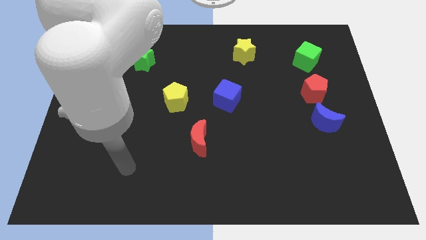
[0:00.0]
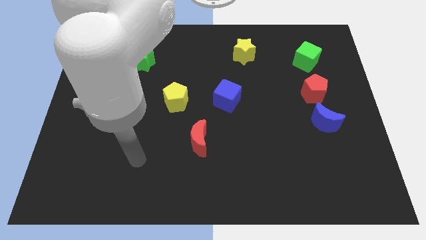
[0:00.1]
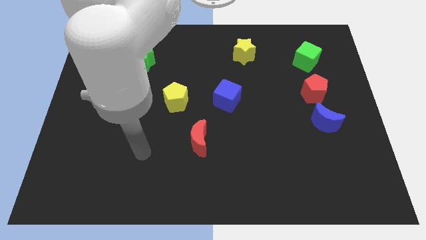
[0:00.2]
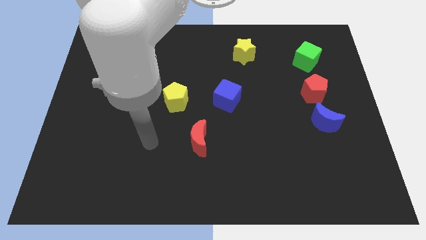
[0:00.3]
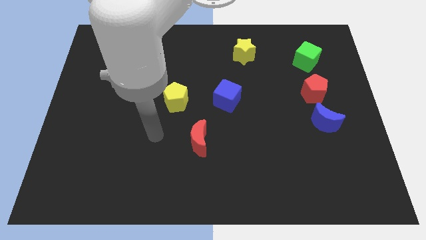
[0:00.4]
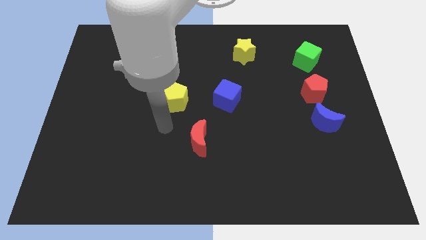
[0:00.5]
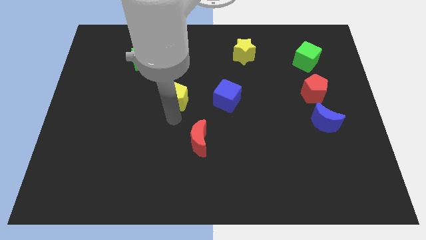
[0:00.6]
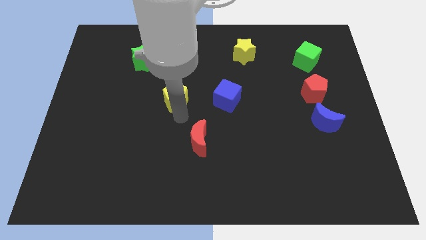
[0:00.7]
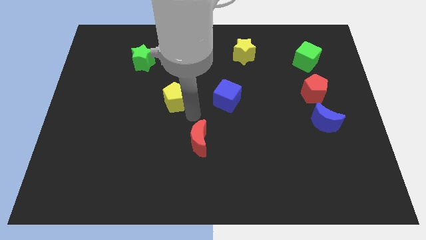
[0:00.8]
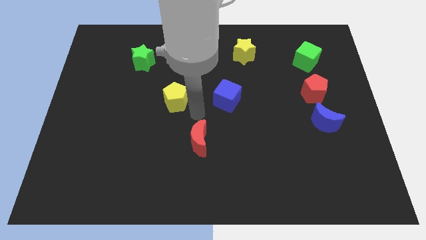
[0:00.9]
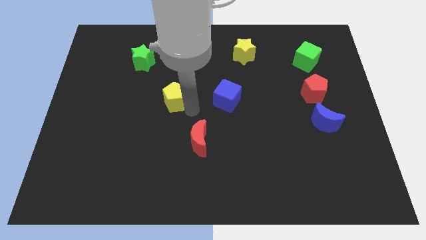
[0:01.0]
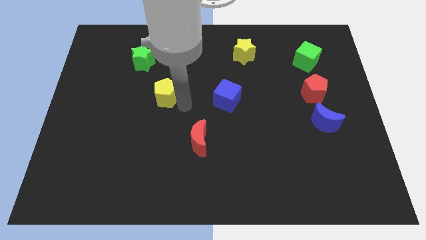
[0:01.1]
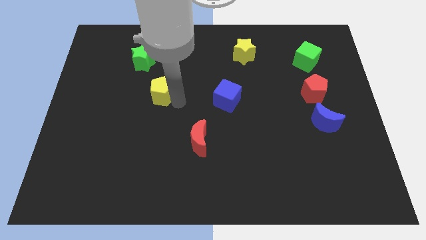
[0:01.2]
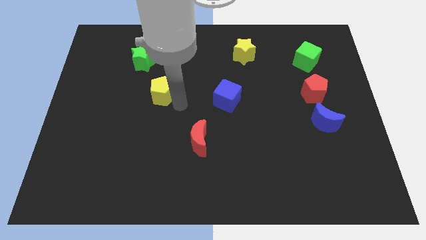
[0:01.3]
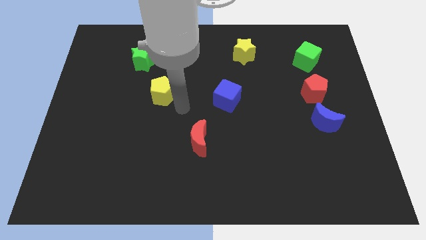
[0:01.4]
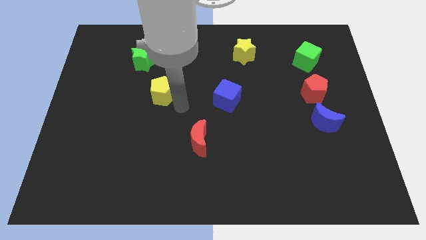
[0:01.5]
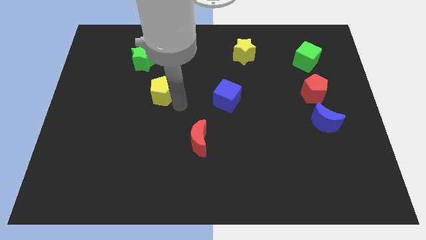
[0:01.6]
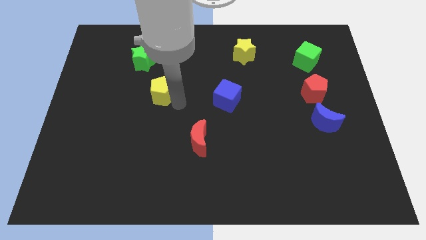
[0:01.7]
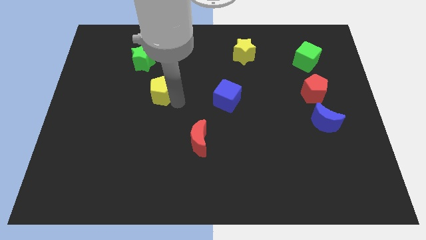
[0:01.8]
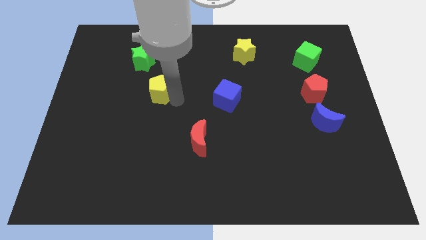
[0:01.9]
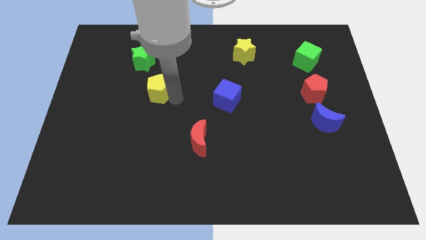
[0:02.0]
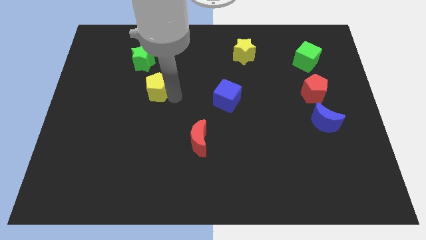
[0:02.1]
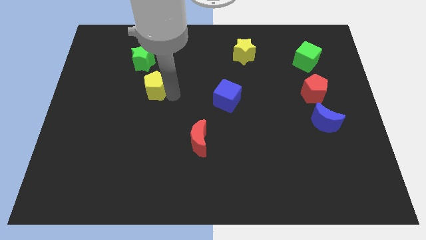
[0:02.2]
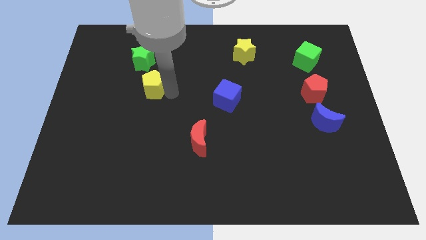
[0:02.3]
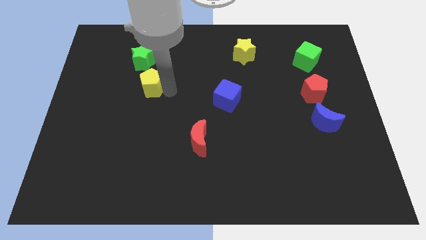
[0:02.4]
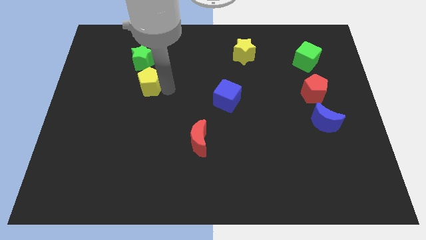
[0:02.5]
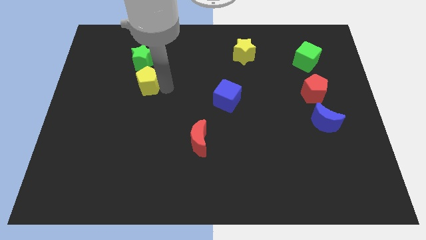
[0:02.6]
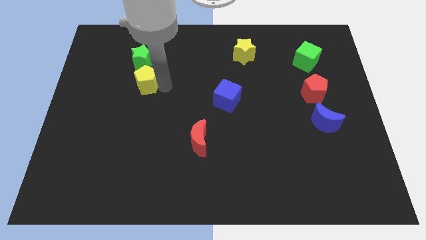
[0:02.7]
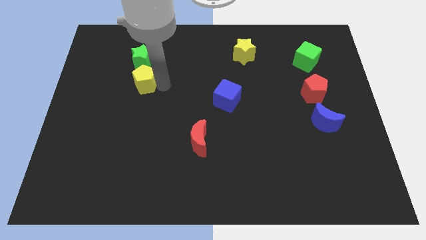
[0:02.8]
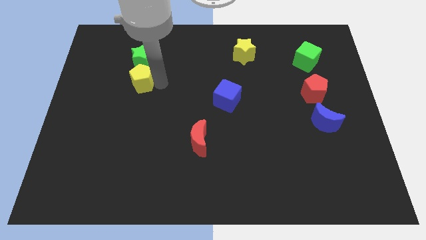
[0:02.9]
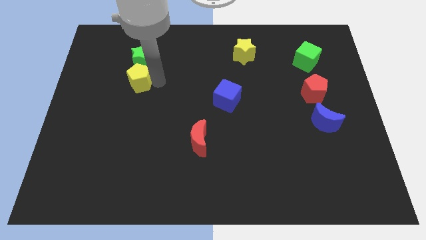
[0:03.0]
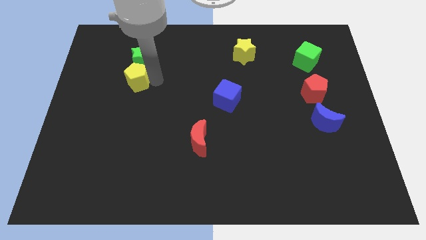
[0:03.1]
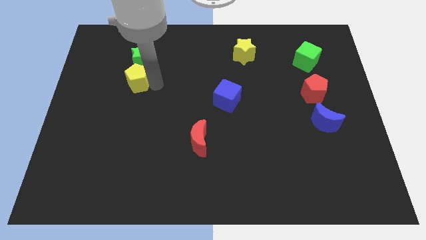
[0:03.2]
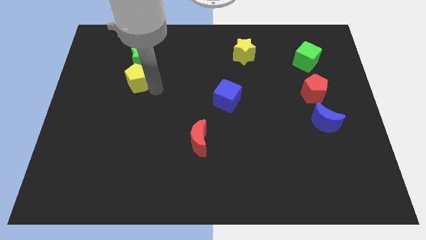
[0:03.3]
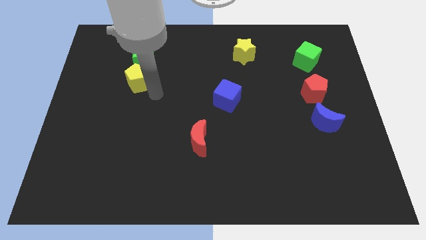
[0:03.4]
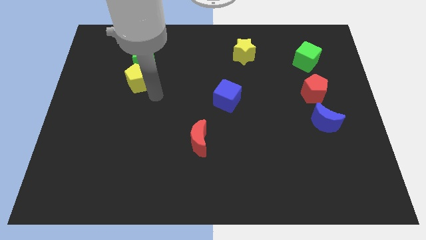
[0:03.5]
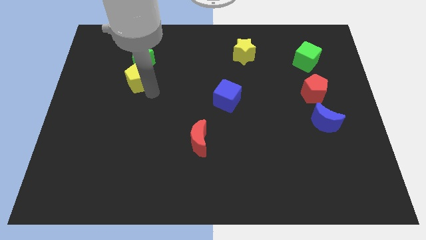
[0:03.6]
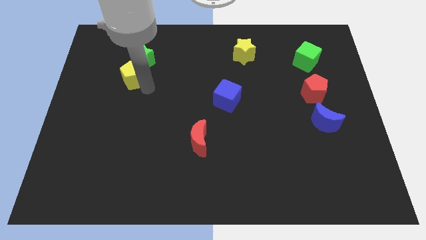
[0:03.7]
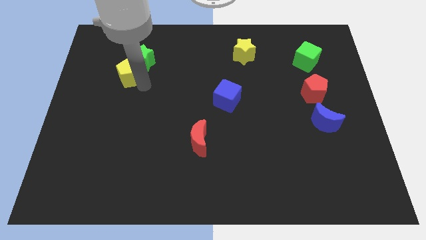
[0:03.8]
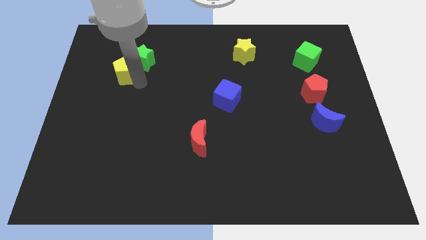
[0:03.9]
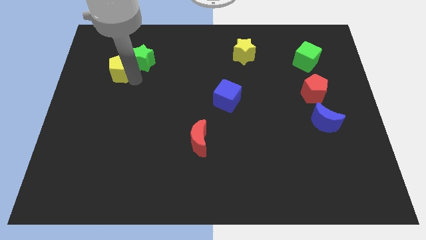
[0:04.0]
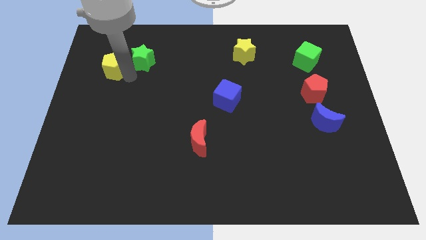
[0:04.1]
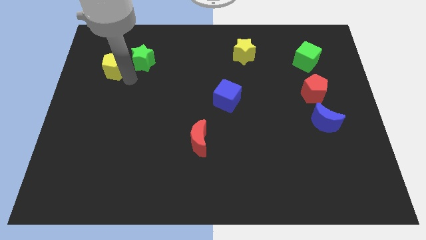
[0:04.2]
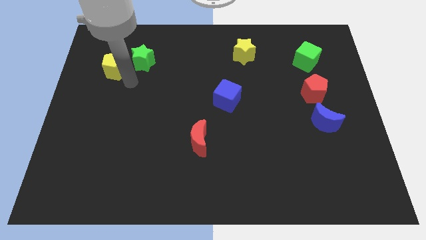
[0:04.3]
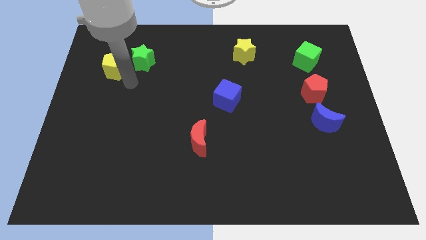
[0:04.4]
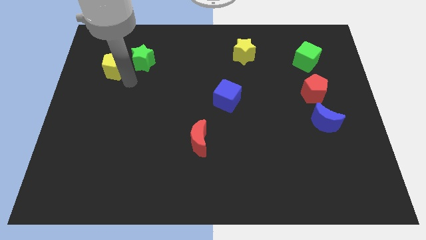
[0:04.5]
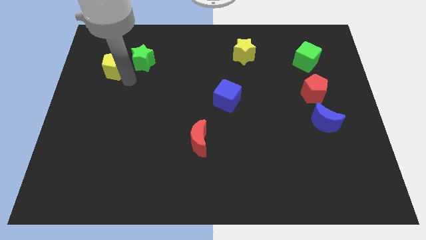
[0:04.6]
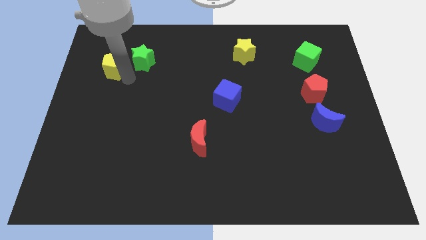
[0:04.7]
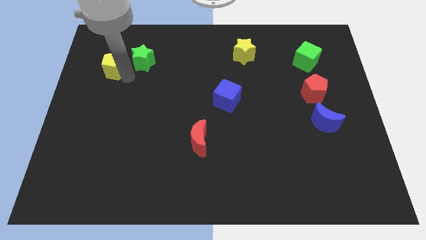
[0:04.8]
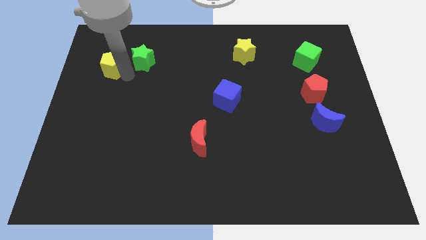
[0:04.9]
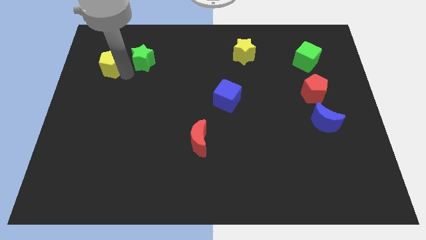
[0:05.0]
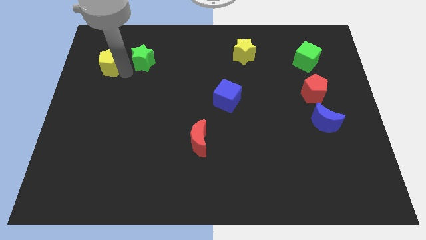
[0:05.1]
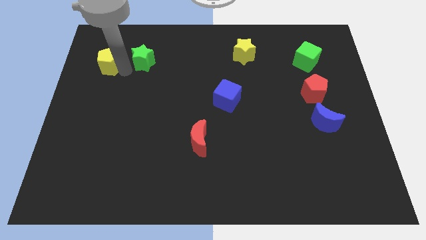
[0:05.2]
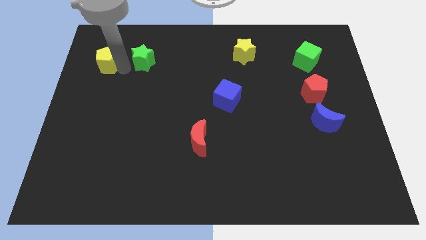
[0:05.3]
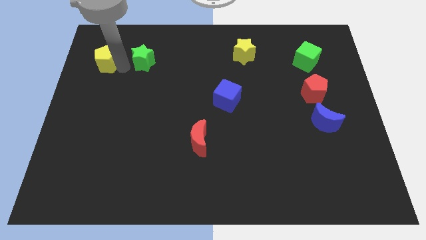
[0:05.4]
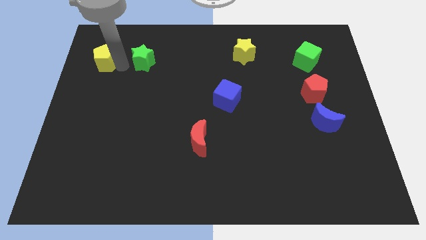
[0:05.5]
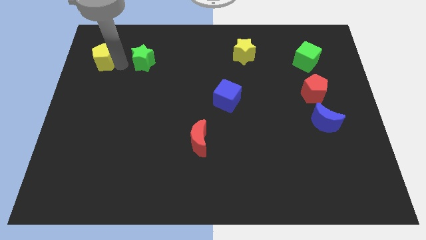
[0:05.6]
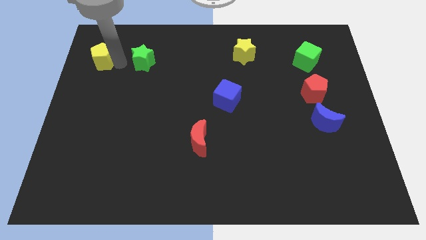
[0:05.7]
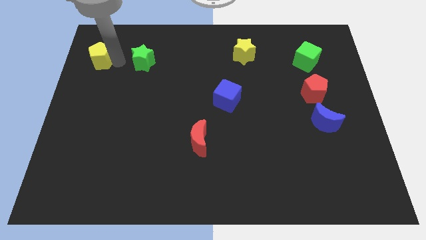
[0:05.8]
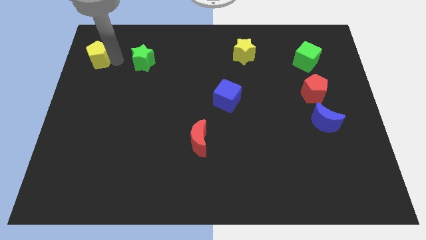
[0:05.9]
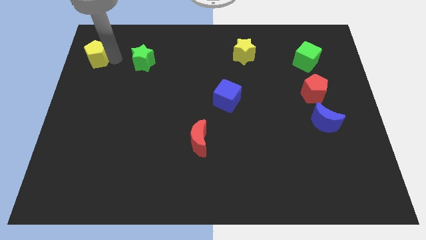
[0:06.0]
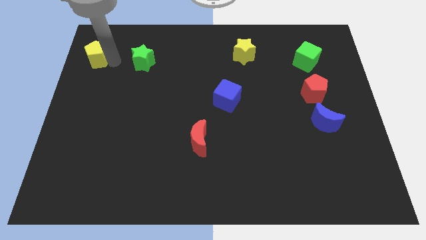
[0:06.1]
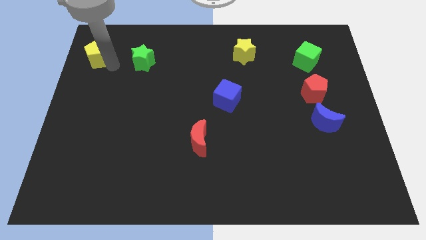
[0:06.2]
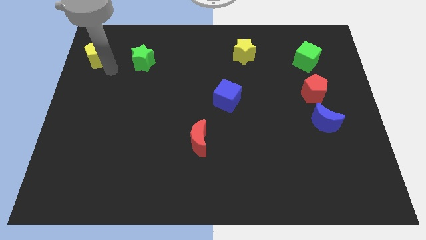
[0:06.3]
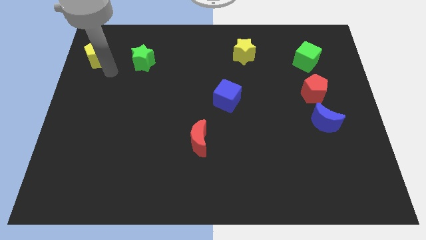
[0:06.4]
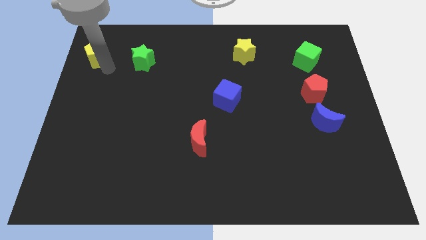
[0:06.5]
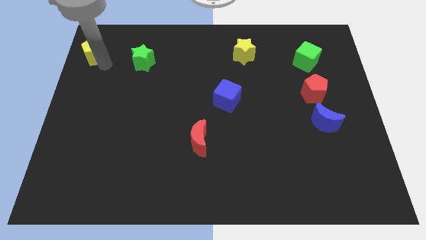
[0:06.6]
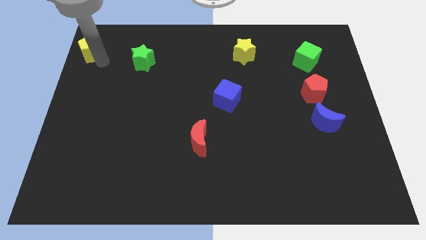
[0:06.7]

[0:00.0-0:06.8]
move the yellow pentagon to the top left

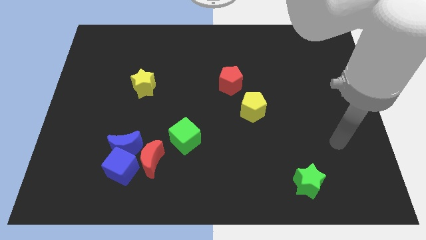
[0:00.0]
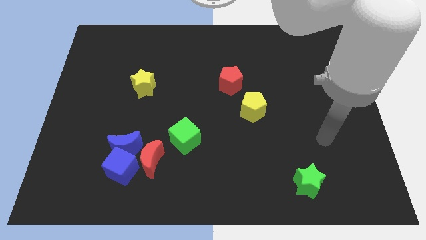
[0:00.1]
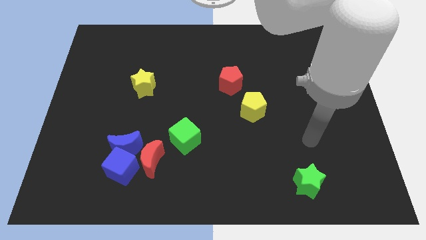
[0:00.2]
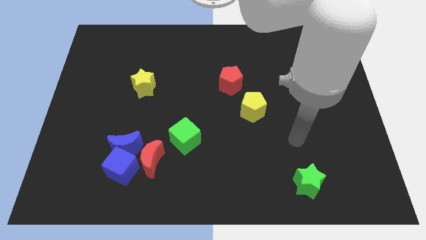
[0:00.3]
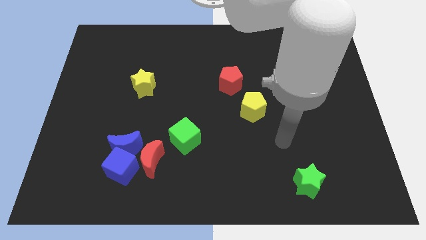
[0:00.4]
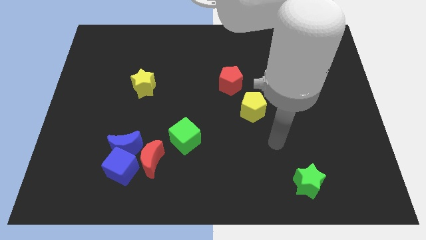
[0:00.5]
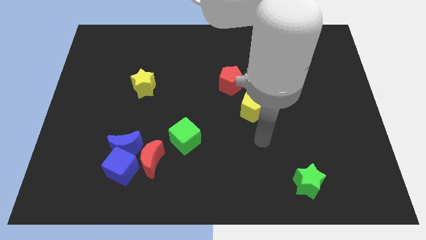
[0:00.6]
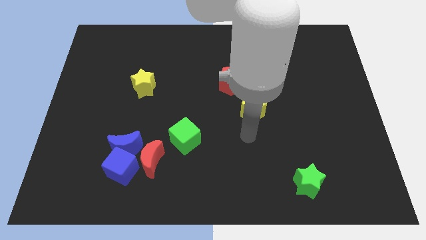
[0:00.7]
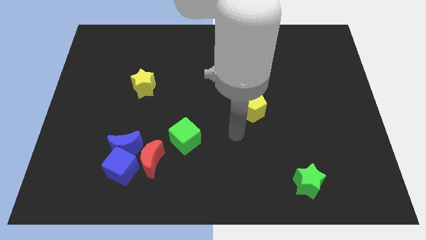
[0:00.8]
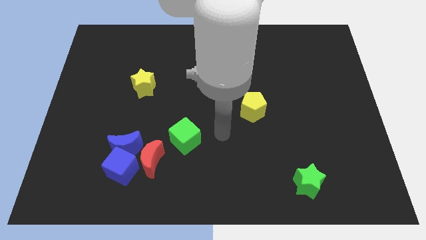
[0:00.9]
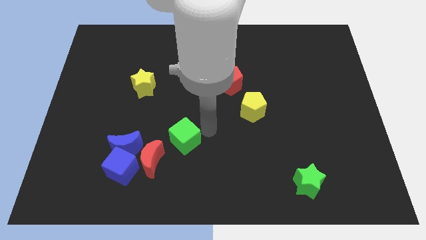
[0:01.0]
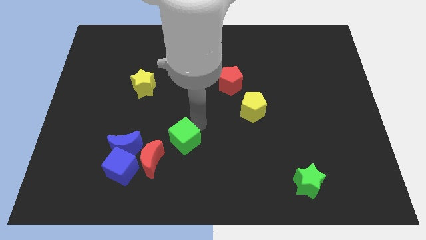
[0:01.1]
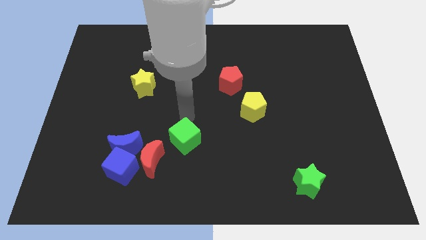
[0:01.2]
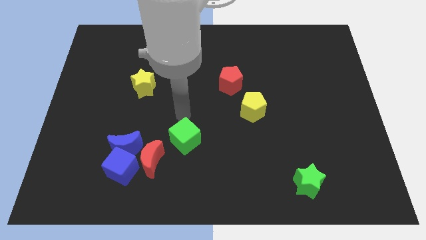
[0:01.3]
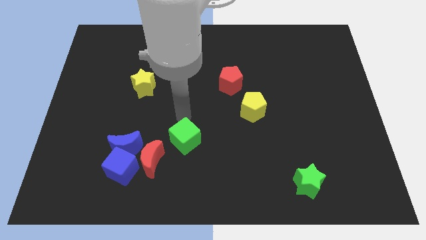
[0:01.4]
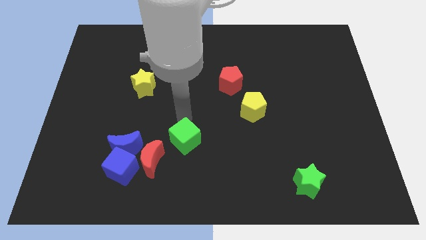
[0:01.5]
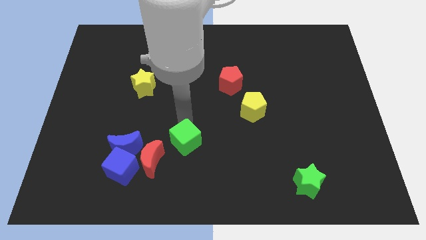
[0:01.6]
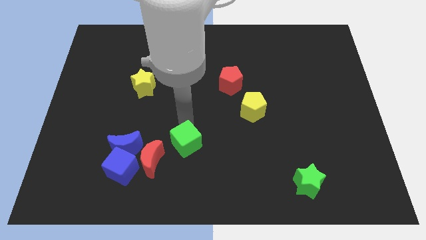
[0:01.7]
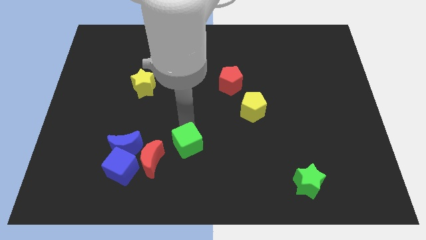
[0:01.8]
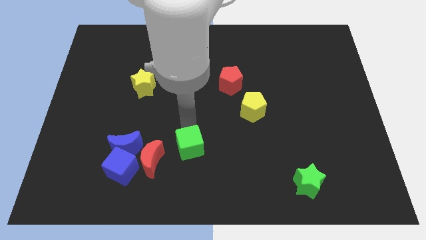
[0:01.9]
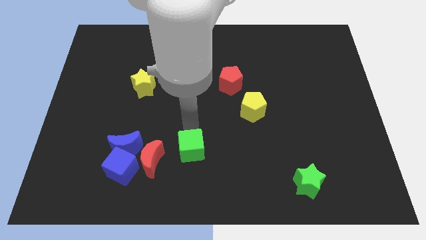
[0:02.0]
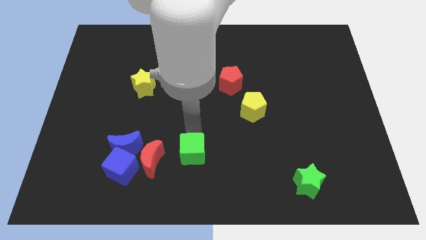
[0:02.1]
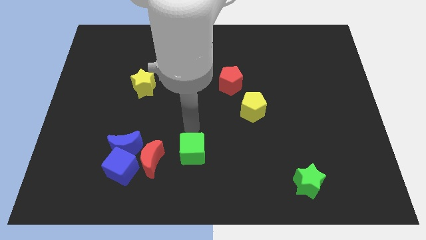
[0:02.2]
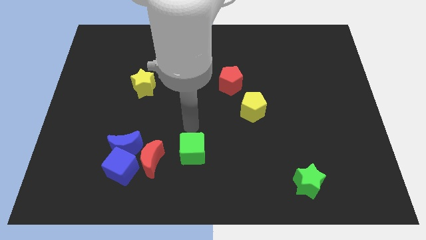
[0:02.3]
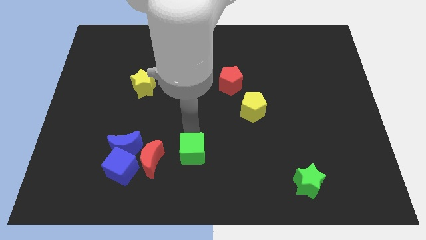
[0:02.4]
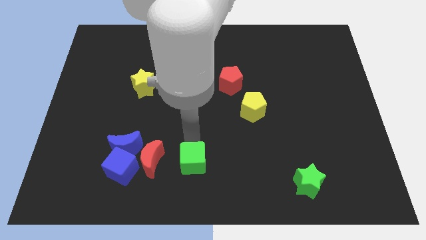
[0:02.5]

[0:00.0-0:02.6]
put the green cube to the bottom side
